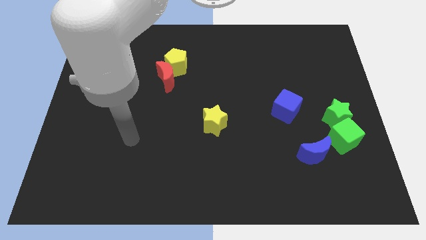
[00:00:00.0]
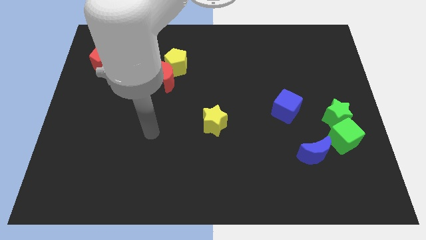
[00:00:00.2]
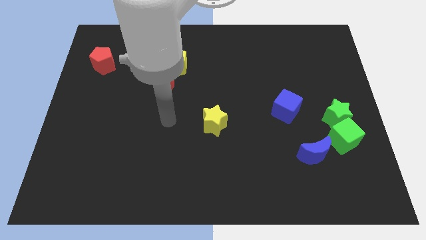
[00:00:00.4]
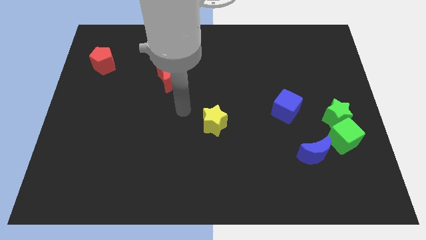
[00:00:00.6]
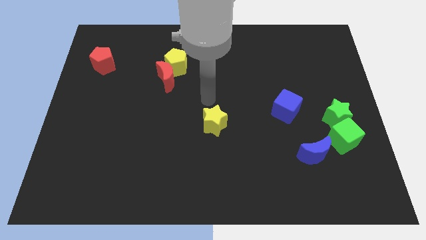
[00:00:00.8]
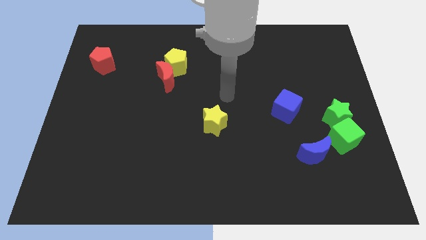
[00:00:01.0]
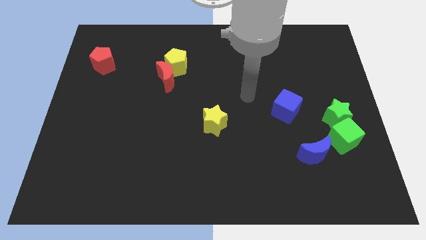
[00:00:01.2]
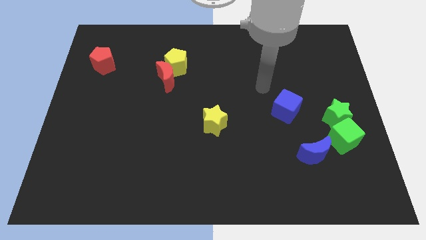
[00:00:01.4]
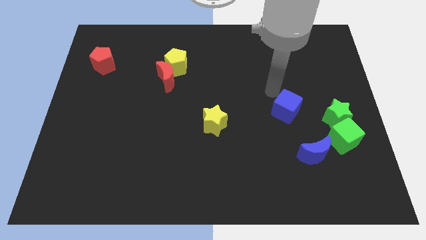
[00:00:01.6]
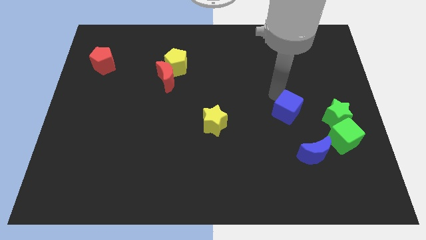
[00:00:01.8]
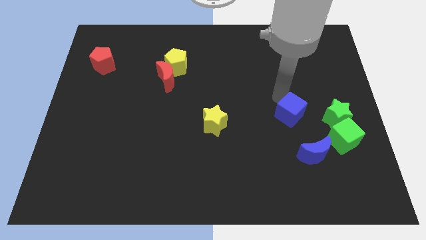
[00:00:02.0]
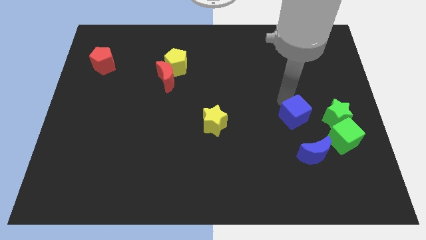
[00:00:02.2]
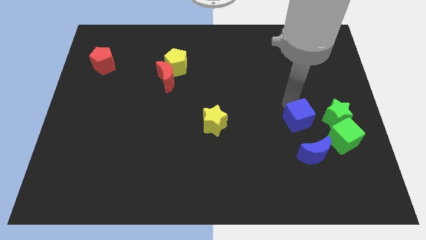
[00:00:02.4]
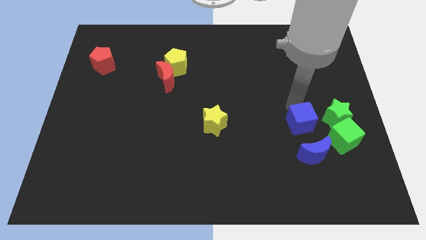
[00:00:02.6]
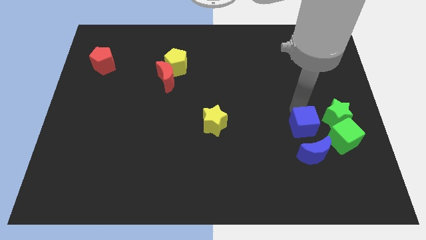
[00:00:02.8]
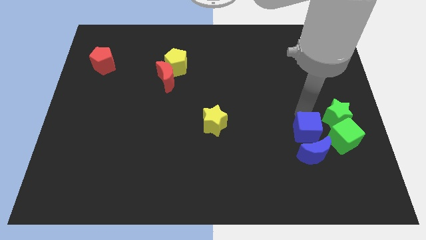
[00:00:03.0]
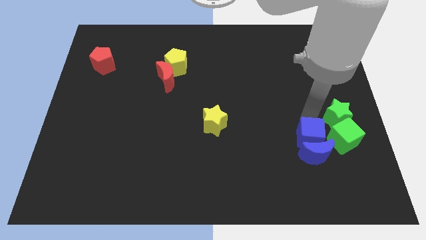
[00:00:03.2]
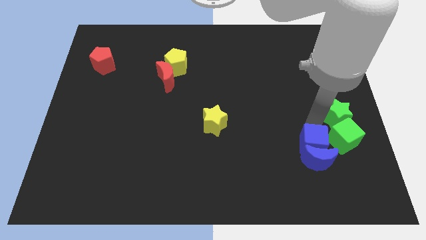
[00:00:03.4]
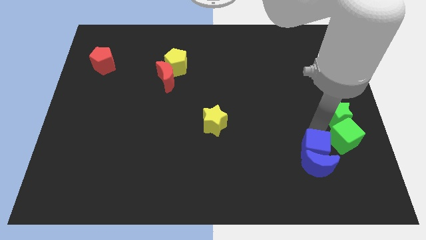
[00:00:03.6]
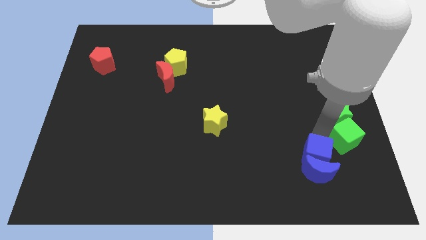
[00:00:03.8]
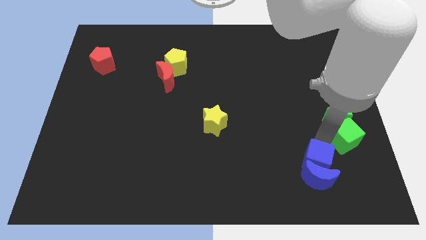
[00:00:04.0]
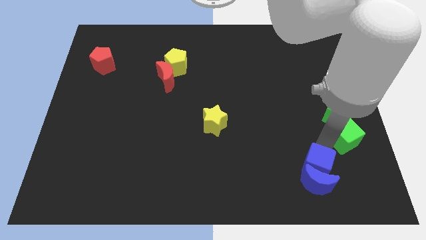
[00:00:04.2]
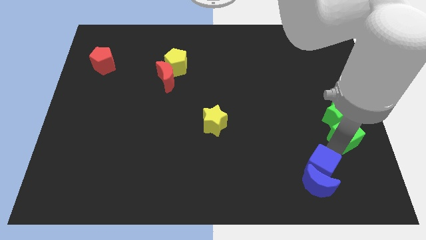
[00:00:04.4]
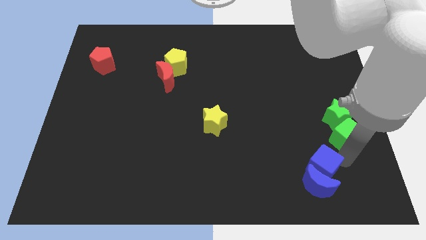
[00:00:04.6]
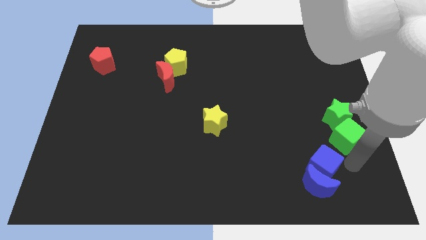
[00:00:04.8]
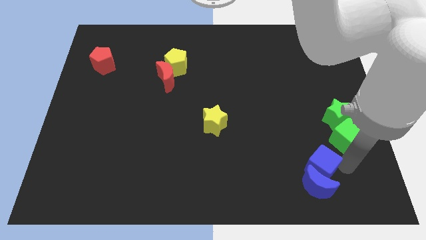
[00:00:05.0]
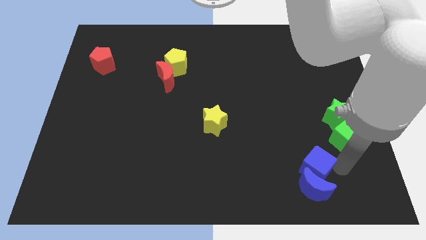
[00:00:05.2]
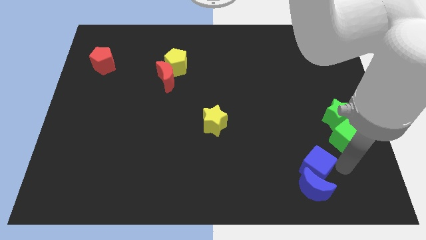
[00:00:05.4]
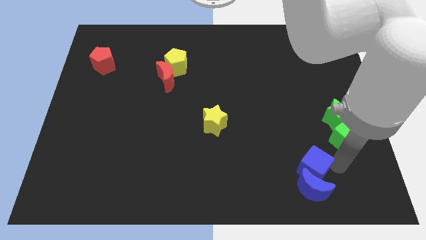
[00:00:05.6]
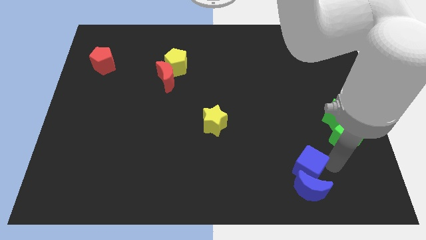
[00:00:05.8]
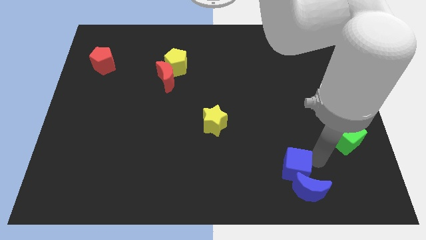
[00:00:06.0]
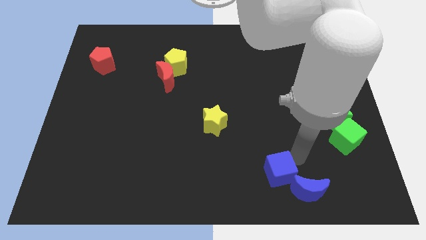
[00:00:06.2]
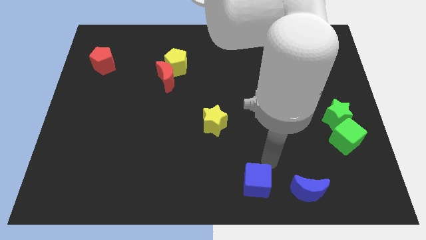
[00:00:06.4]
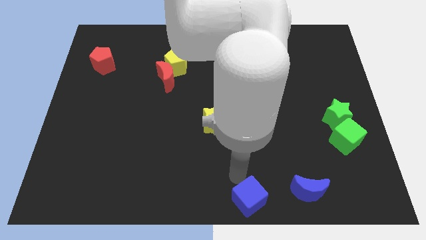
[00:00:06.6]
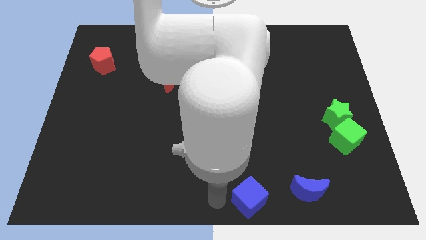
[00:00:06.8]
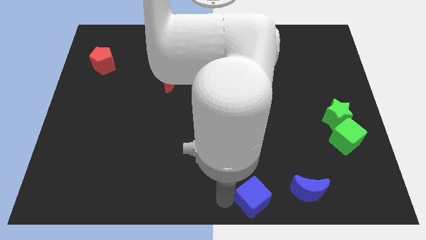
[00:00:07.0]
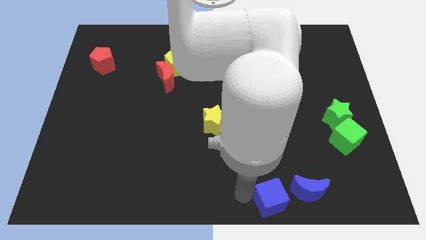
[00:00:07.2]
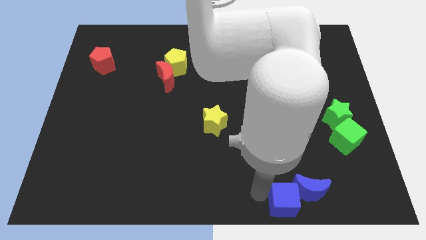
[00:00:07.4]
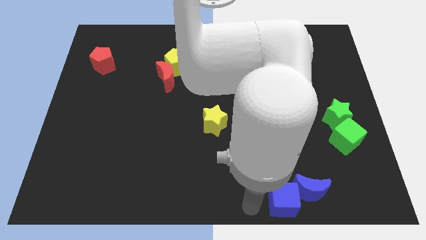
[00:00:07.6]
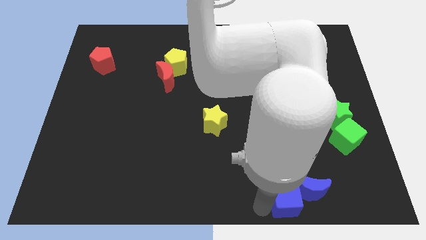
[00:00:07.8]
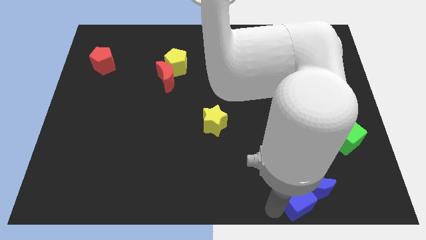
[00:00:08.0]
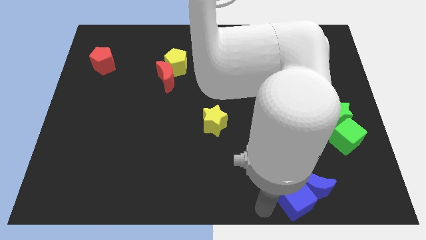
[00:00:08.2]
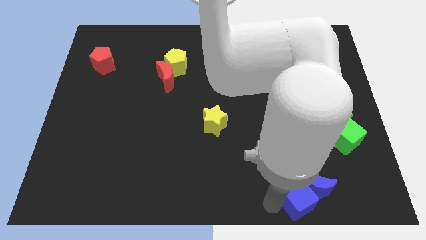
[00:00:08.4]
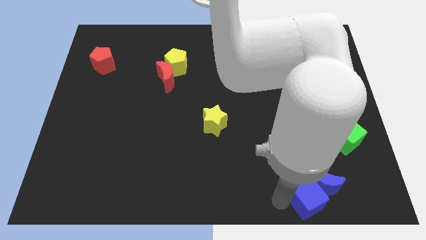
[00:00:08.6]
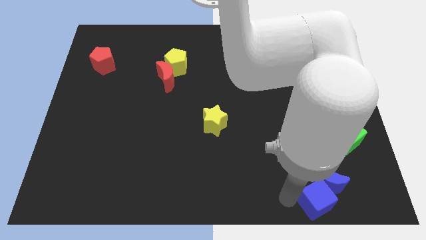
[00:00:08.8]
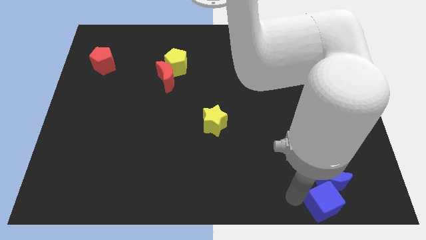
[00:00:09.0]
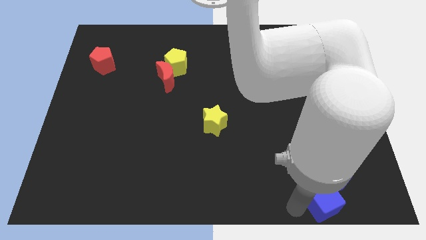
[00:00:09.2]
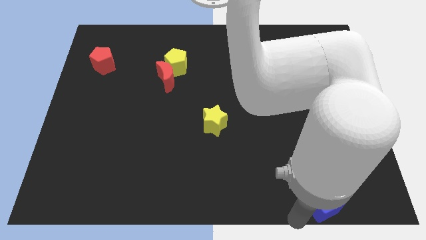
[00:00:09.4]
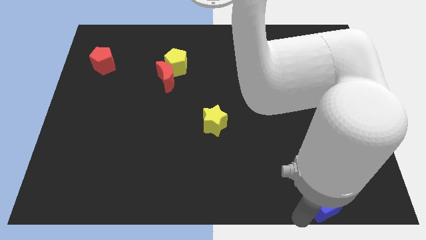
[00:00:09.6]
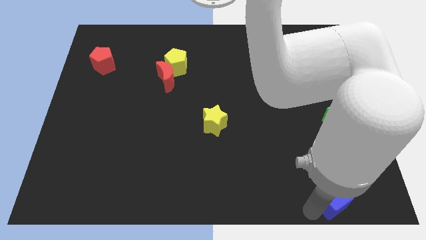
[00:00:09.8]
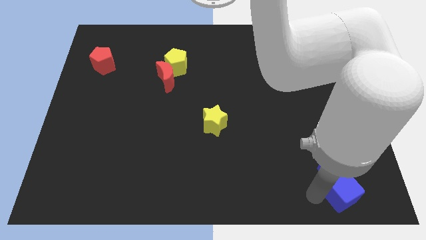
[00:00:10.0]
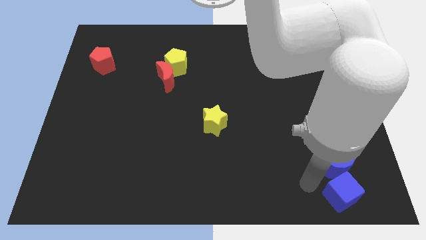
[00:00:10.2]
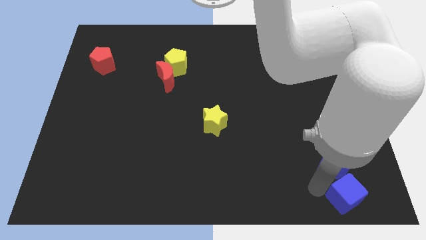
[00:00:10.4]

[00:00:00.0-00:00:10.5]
put the blue cube to the bottom right
